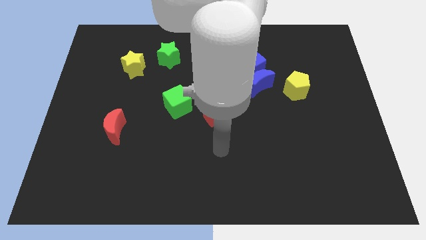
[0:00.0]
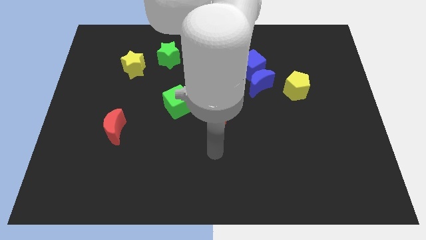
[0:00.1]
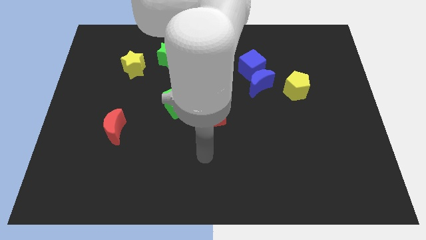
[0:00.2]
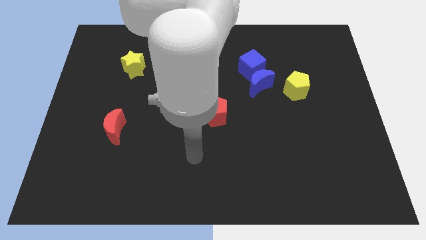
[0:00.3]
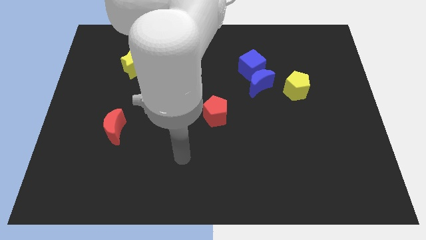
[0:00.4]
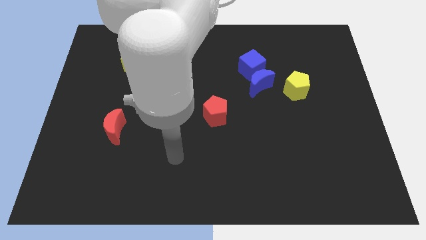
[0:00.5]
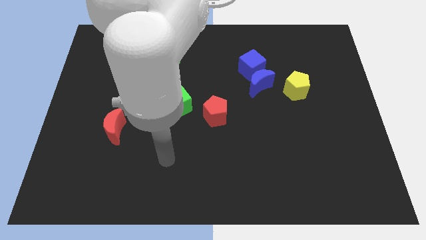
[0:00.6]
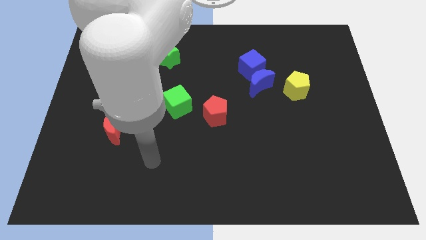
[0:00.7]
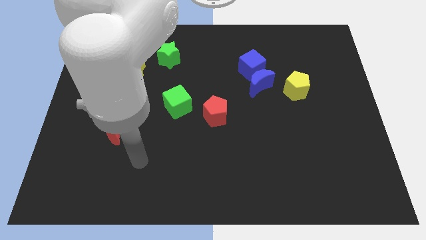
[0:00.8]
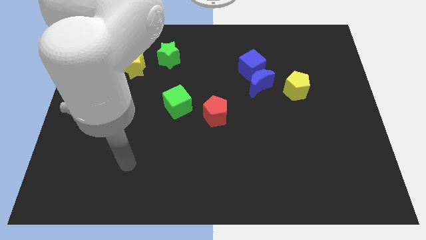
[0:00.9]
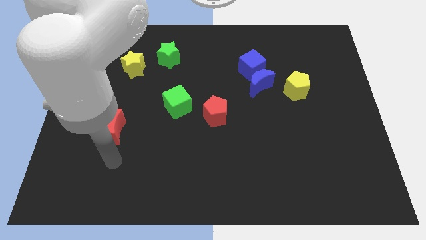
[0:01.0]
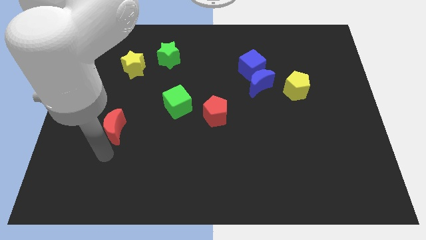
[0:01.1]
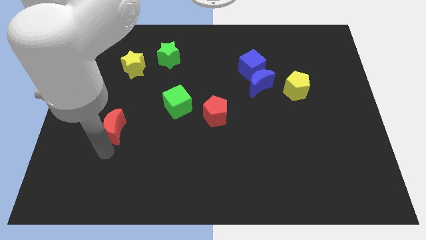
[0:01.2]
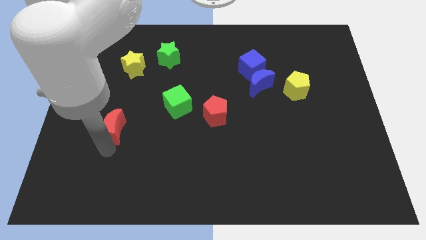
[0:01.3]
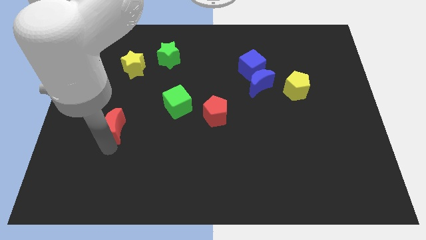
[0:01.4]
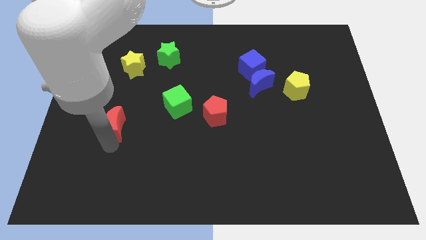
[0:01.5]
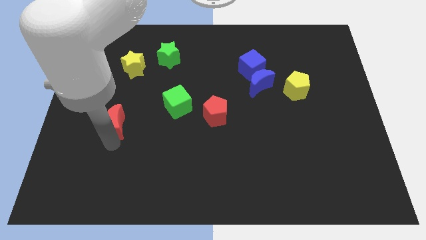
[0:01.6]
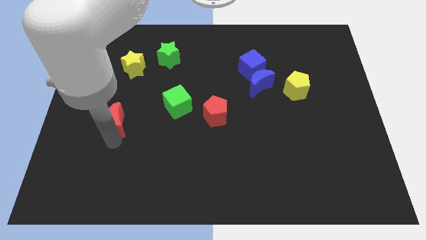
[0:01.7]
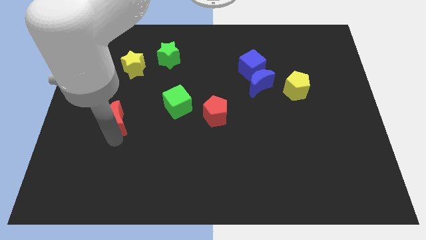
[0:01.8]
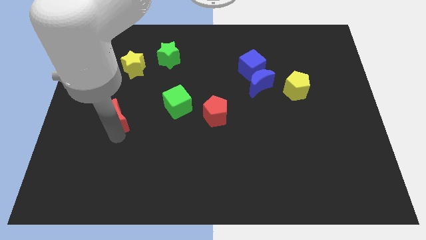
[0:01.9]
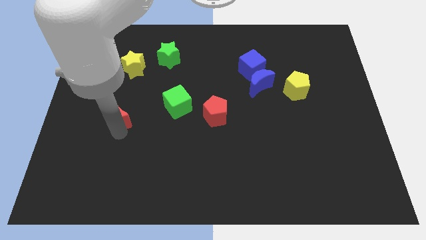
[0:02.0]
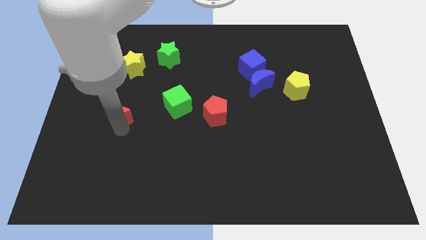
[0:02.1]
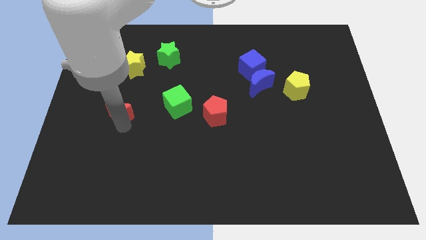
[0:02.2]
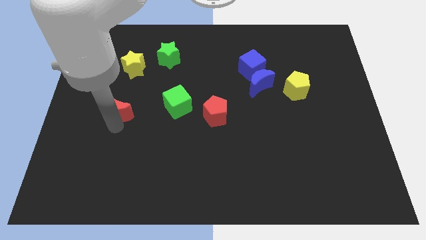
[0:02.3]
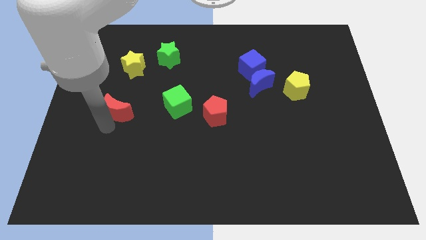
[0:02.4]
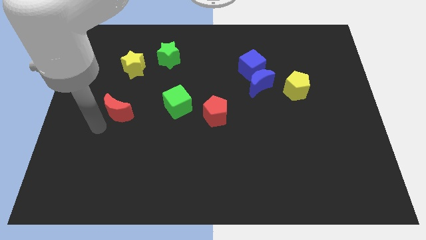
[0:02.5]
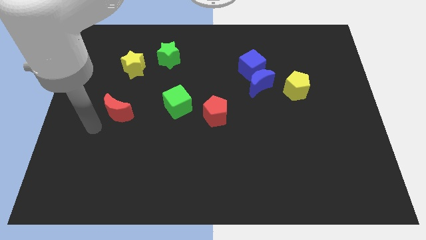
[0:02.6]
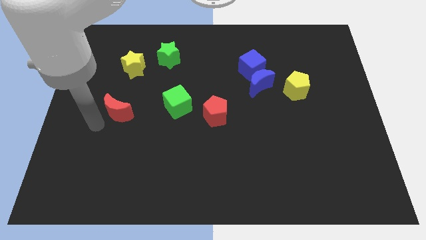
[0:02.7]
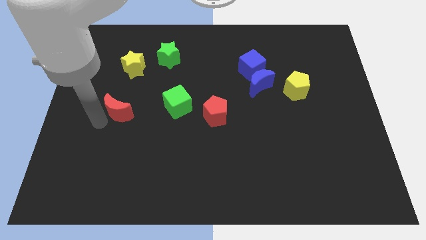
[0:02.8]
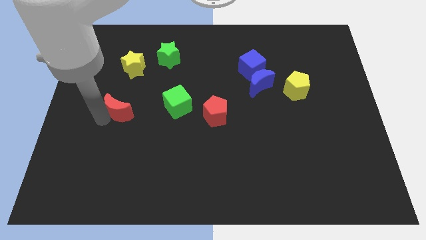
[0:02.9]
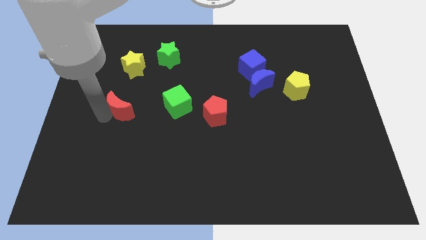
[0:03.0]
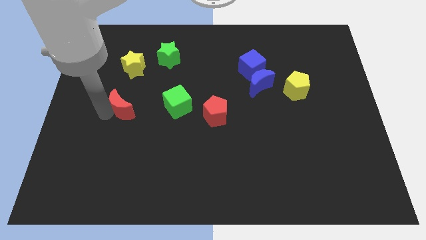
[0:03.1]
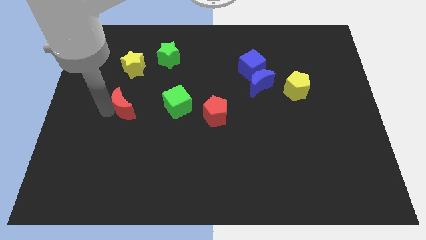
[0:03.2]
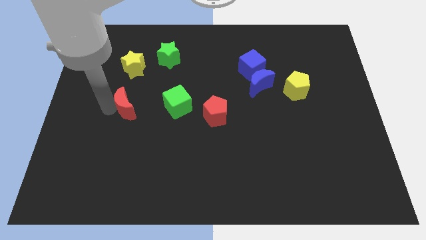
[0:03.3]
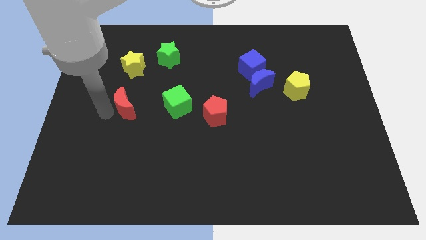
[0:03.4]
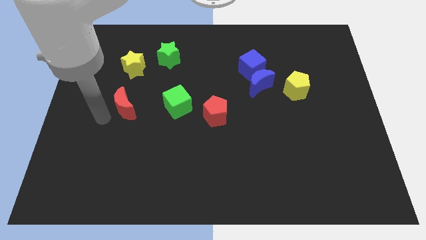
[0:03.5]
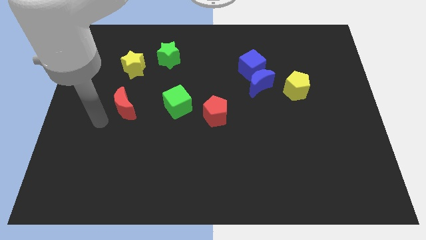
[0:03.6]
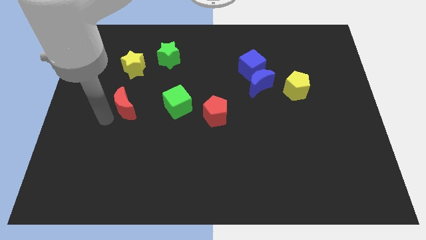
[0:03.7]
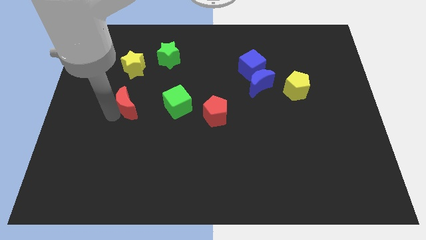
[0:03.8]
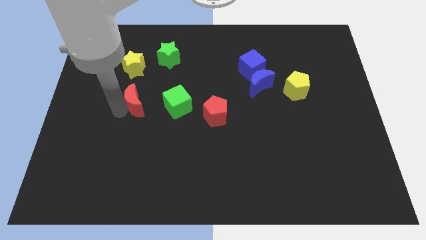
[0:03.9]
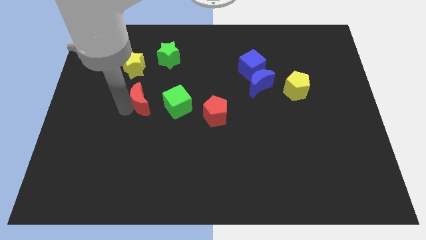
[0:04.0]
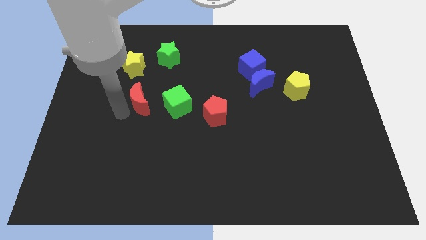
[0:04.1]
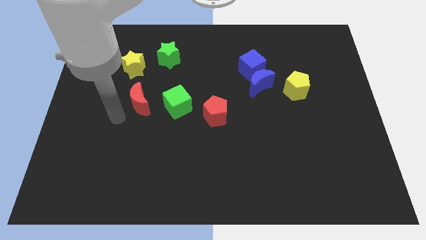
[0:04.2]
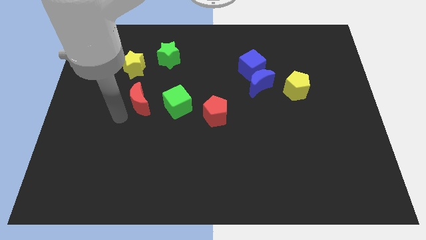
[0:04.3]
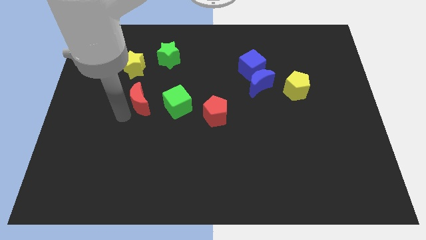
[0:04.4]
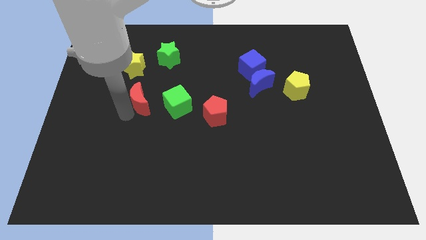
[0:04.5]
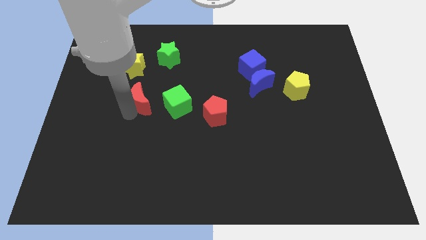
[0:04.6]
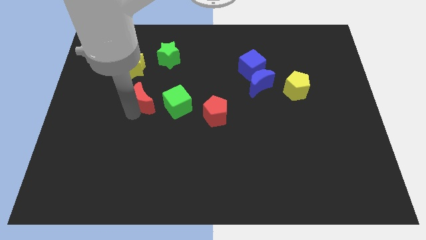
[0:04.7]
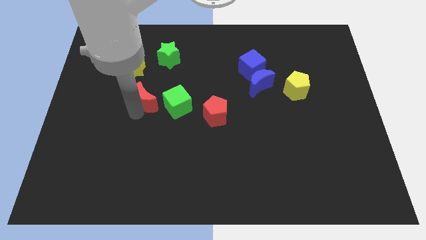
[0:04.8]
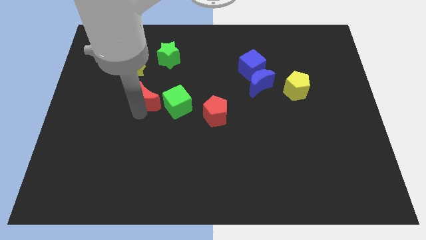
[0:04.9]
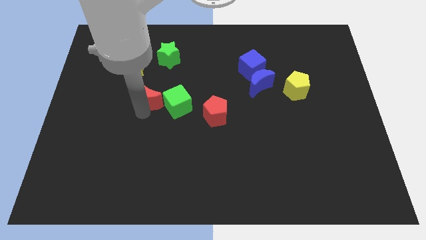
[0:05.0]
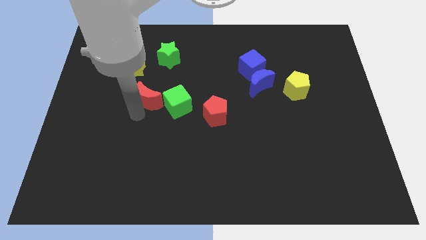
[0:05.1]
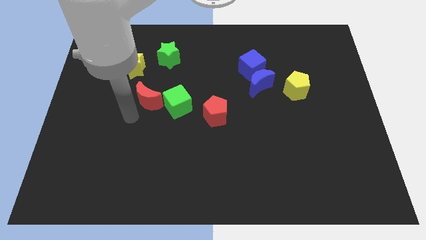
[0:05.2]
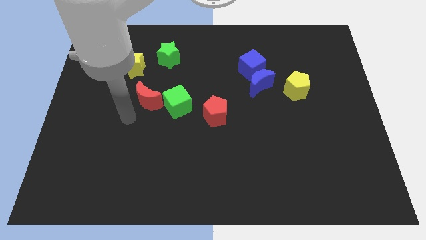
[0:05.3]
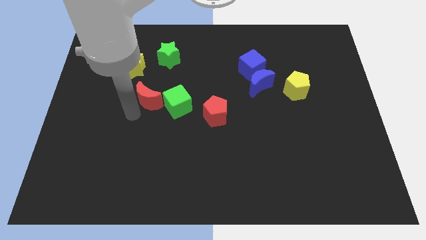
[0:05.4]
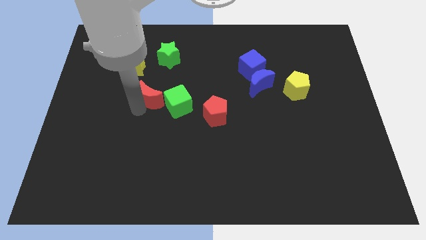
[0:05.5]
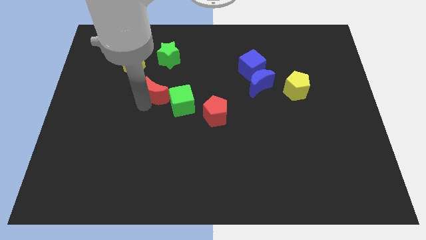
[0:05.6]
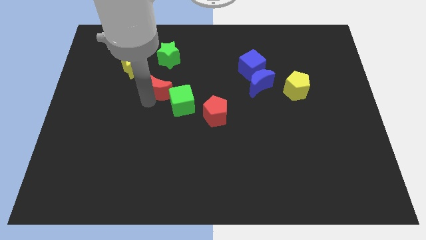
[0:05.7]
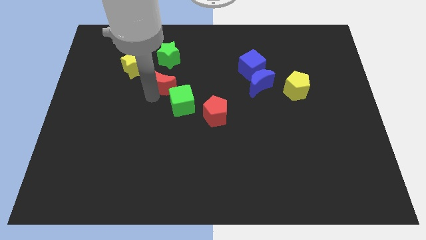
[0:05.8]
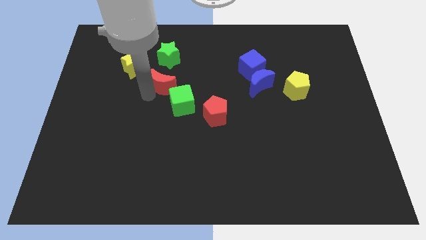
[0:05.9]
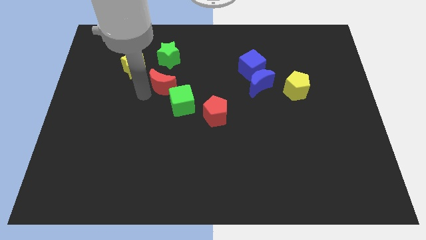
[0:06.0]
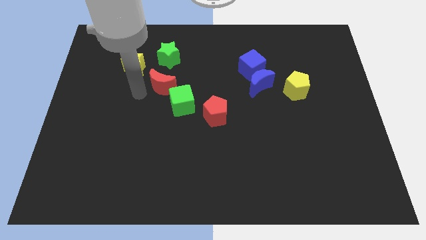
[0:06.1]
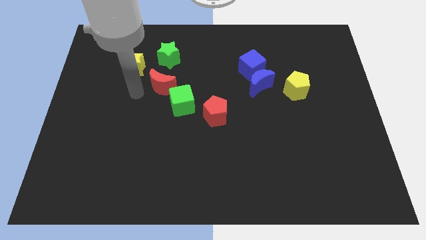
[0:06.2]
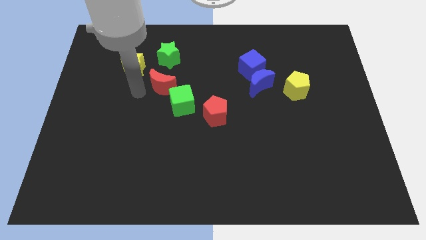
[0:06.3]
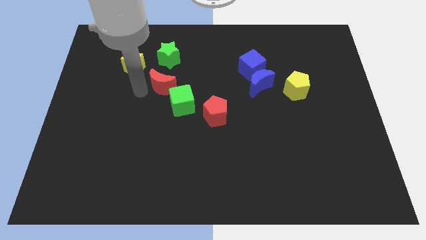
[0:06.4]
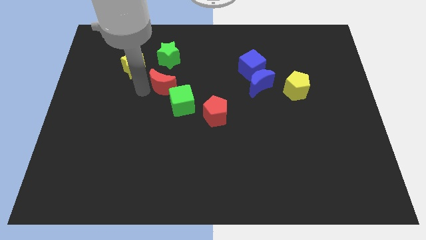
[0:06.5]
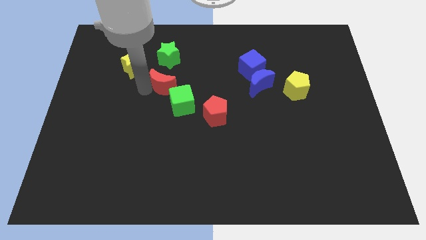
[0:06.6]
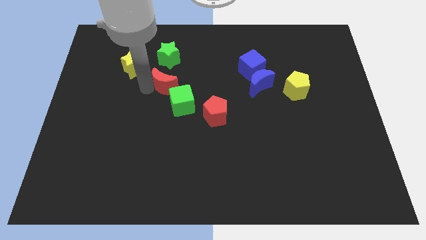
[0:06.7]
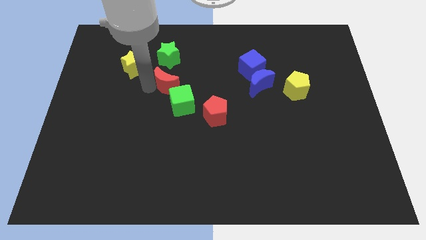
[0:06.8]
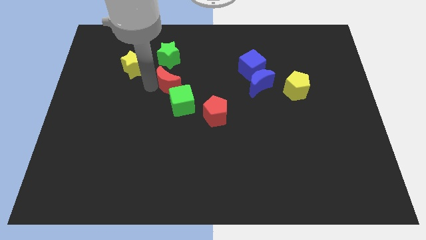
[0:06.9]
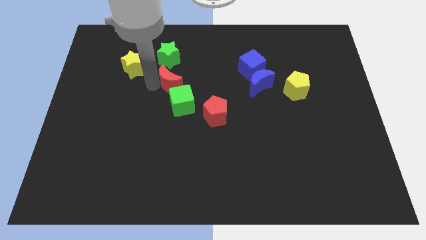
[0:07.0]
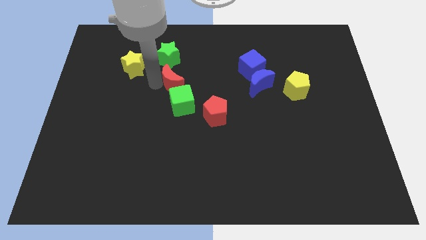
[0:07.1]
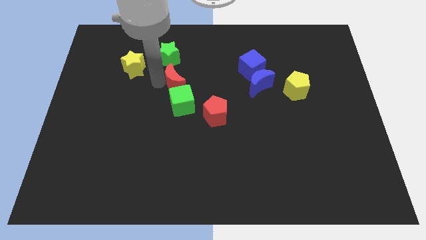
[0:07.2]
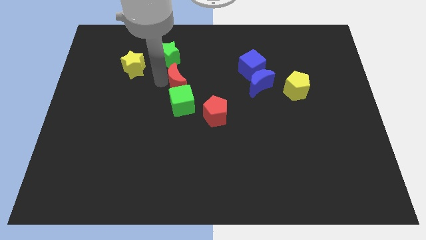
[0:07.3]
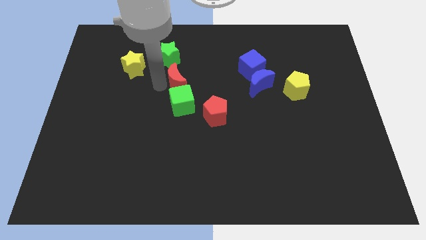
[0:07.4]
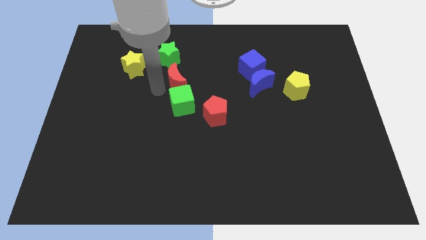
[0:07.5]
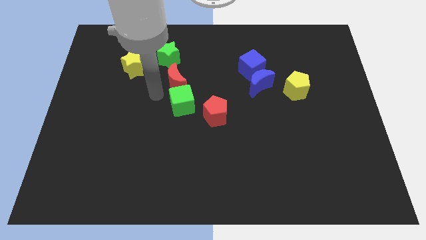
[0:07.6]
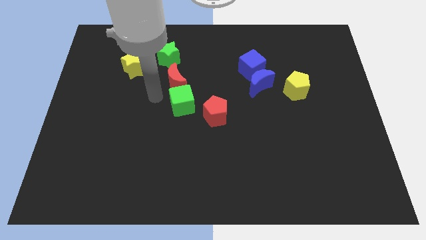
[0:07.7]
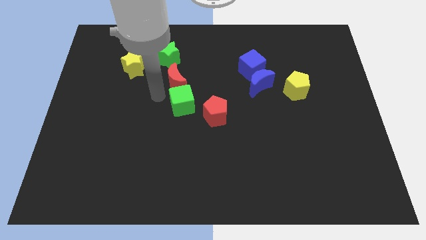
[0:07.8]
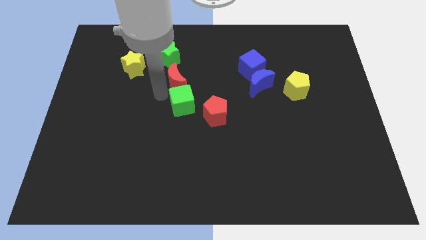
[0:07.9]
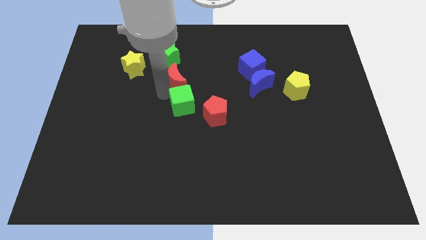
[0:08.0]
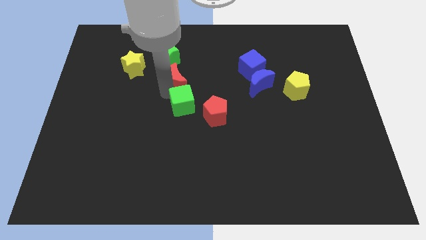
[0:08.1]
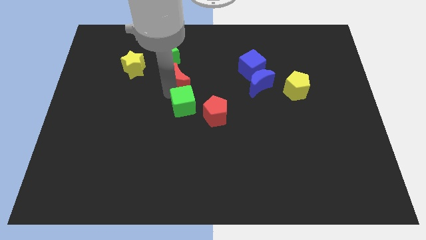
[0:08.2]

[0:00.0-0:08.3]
slide the red moon upwards and to the right diagonally
